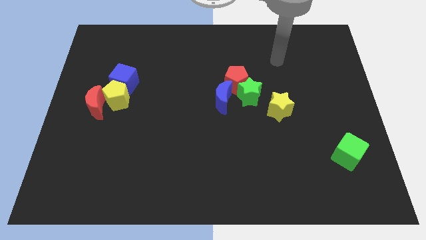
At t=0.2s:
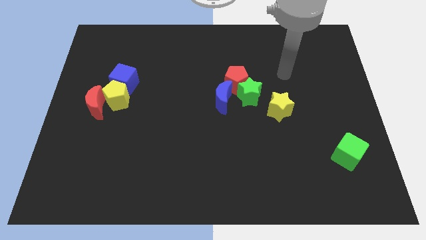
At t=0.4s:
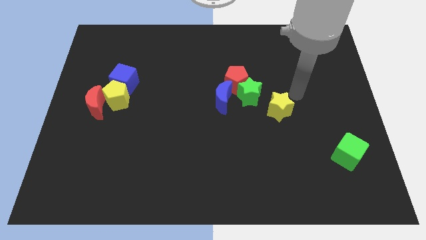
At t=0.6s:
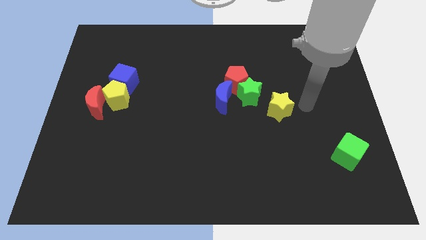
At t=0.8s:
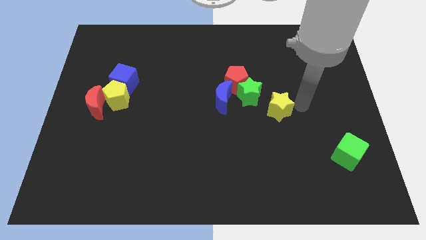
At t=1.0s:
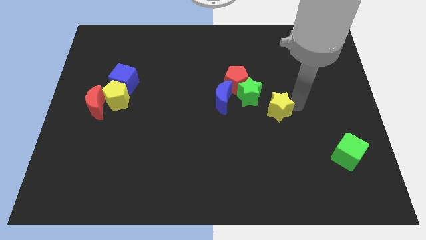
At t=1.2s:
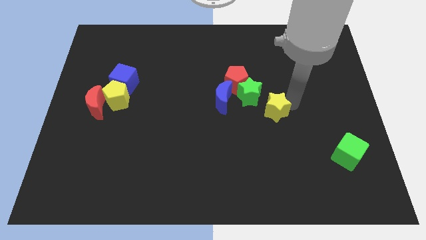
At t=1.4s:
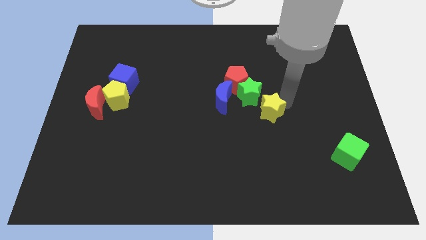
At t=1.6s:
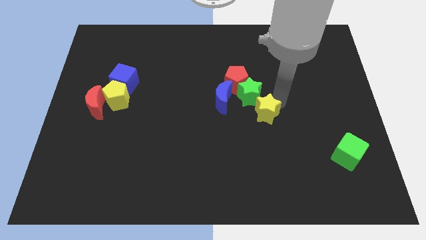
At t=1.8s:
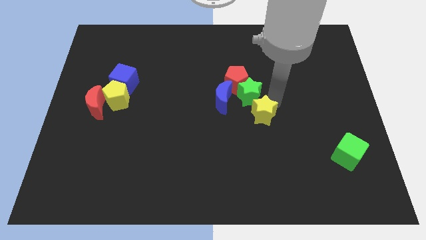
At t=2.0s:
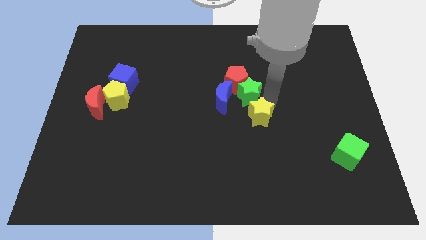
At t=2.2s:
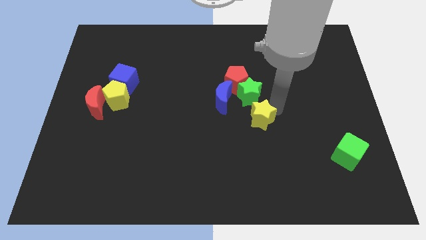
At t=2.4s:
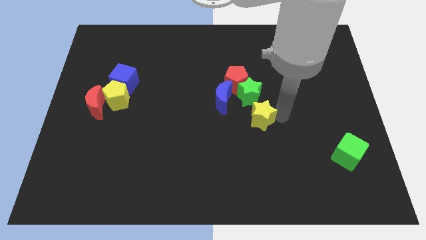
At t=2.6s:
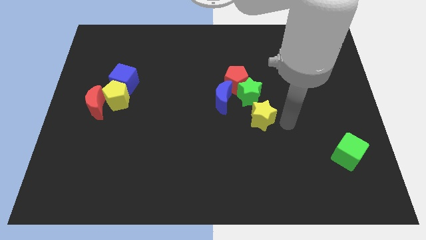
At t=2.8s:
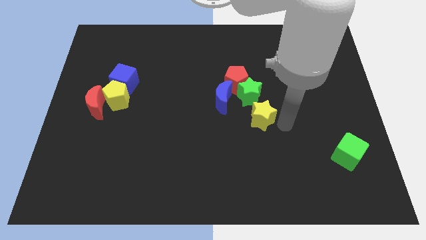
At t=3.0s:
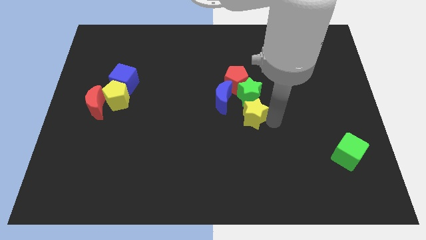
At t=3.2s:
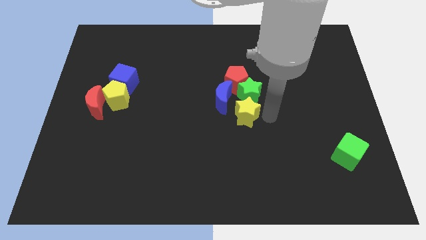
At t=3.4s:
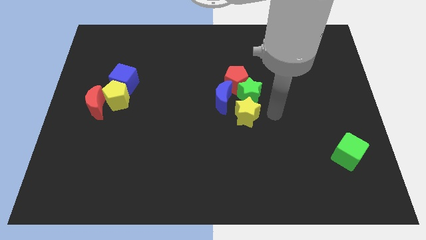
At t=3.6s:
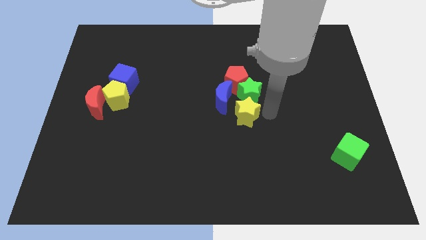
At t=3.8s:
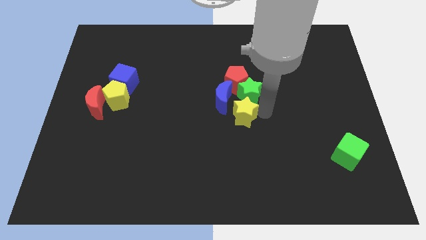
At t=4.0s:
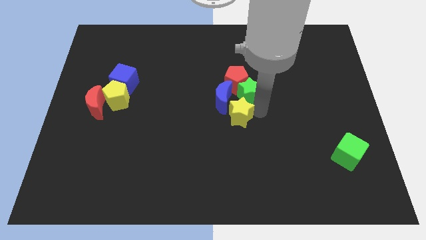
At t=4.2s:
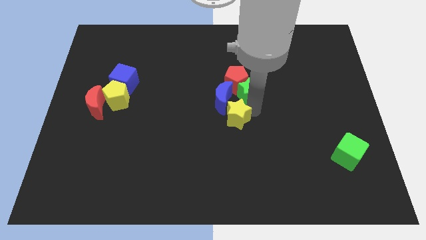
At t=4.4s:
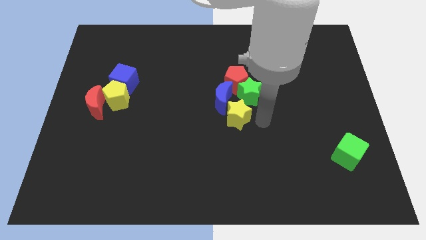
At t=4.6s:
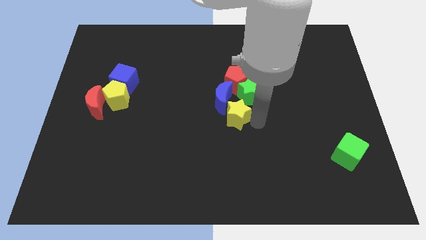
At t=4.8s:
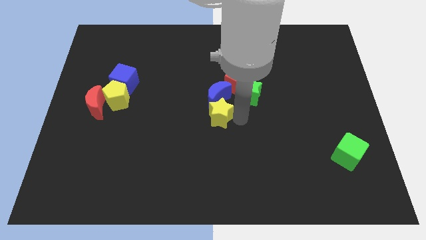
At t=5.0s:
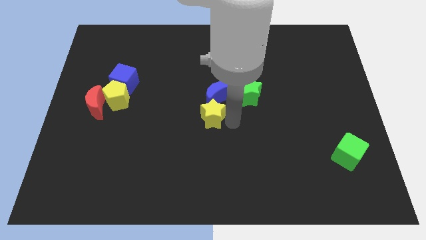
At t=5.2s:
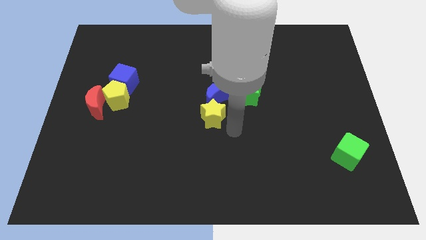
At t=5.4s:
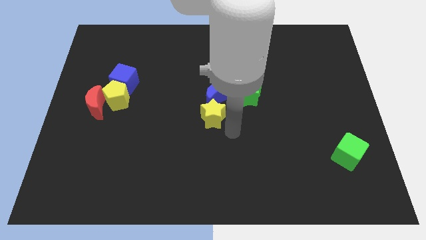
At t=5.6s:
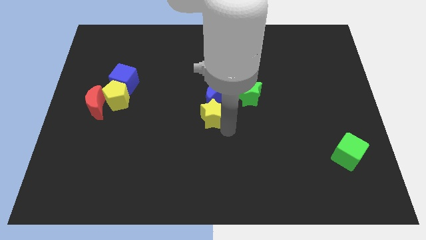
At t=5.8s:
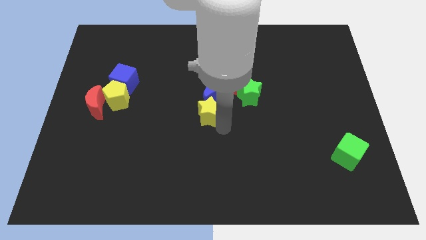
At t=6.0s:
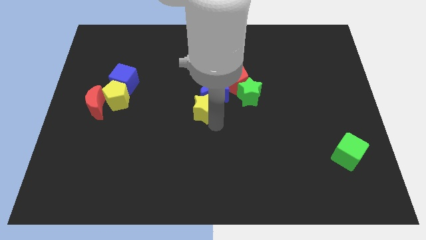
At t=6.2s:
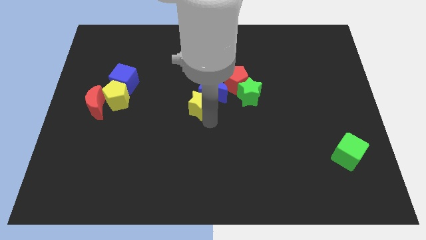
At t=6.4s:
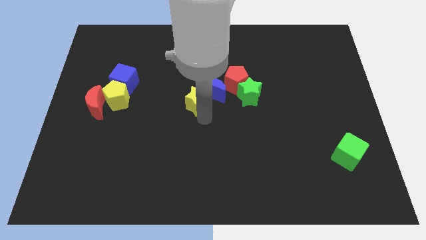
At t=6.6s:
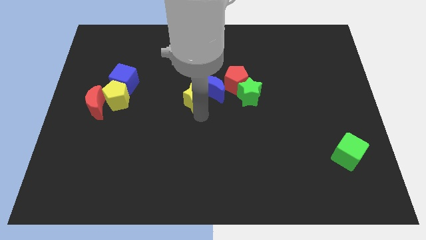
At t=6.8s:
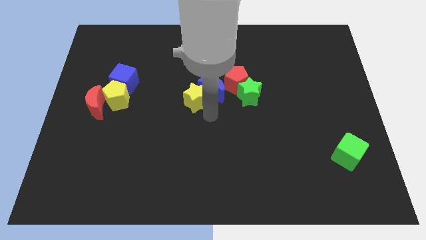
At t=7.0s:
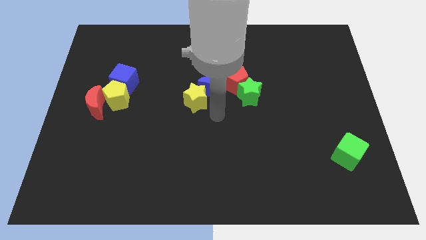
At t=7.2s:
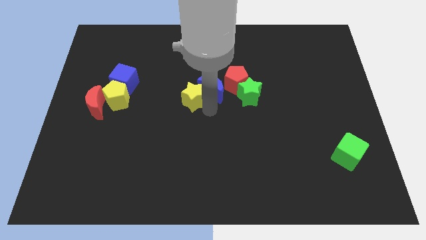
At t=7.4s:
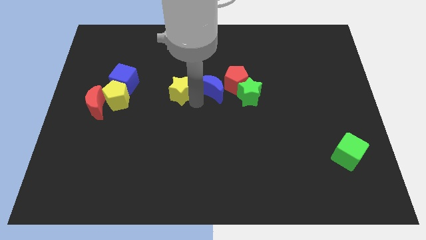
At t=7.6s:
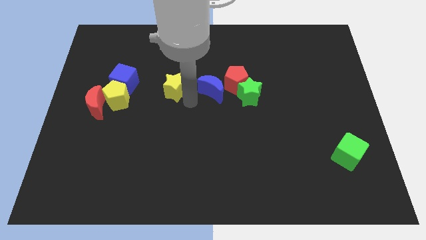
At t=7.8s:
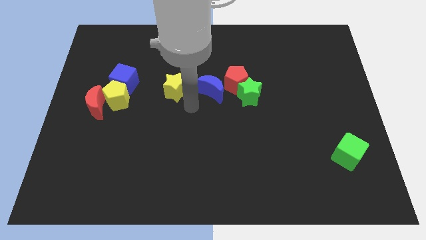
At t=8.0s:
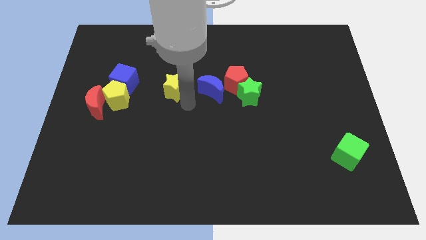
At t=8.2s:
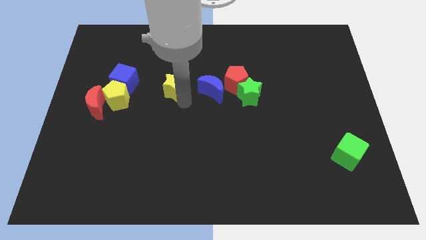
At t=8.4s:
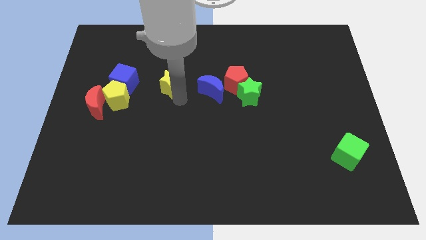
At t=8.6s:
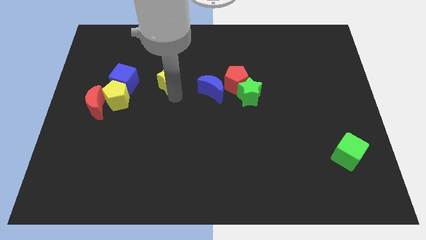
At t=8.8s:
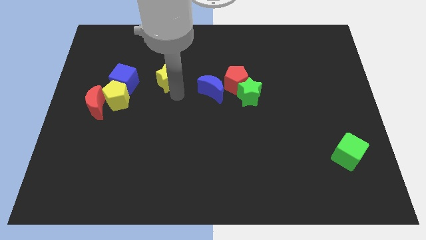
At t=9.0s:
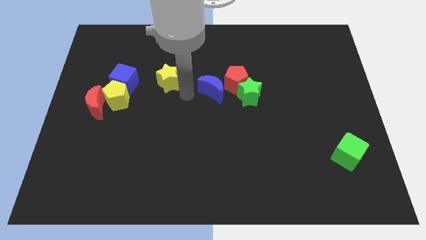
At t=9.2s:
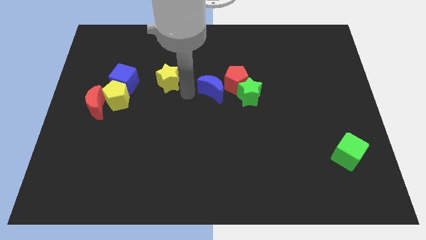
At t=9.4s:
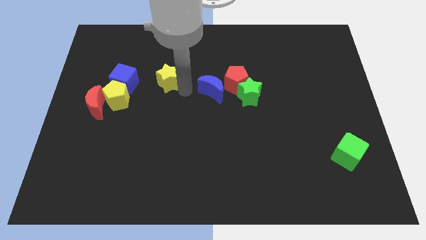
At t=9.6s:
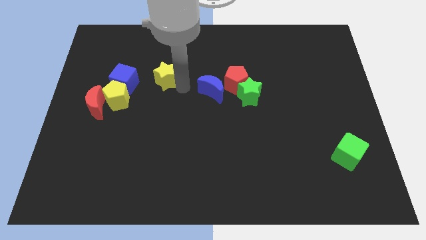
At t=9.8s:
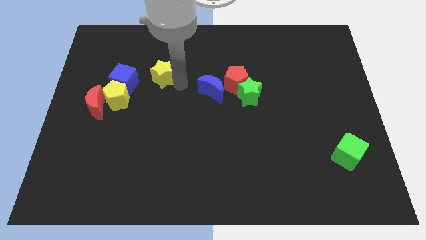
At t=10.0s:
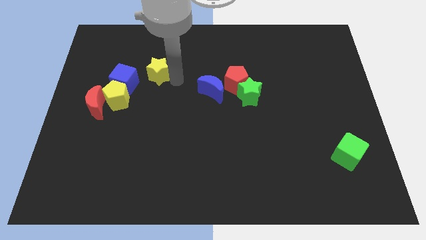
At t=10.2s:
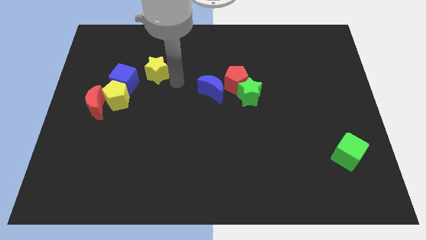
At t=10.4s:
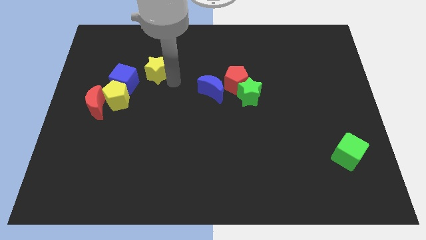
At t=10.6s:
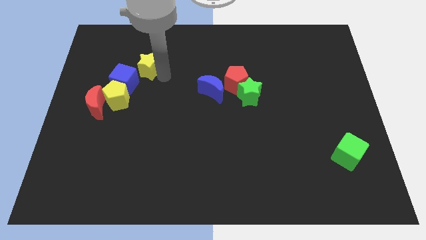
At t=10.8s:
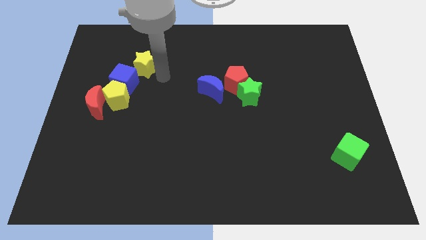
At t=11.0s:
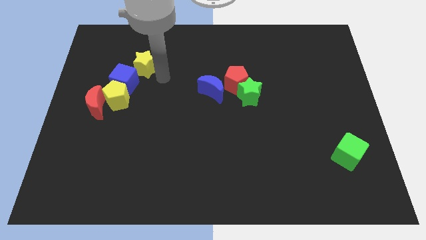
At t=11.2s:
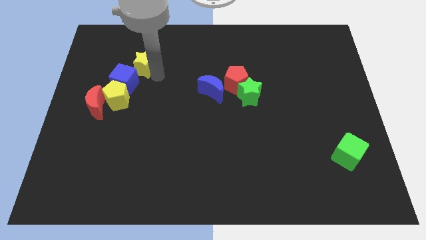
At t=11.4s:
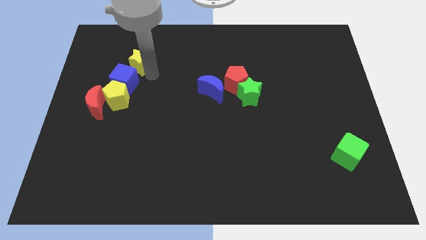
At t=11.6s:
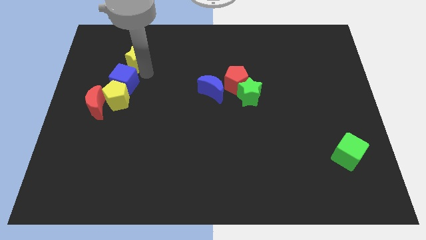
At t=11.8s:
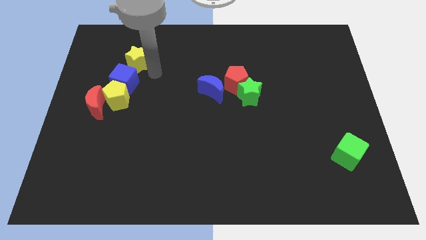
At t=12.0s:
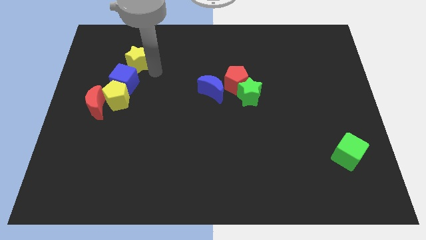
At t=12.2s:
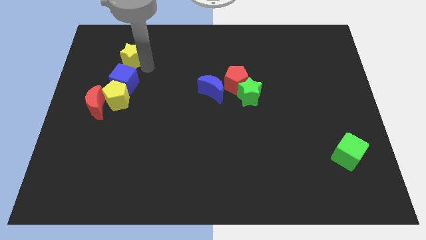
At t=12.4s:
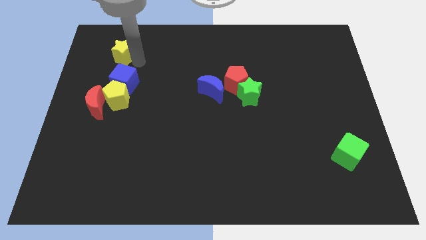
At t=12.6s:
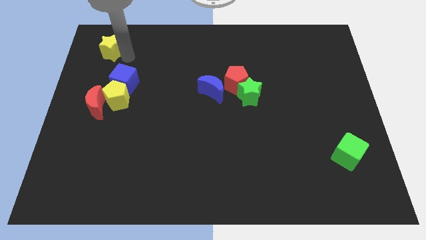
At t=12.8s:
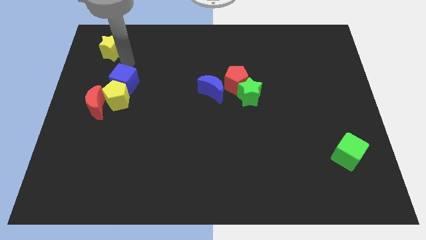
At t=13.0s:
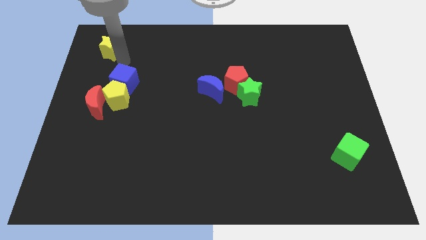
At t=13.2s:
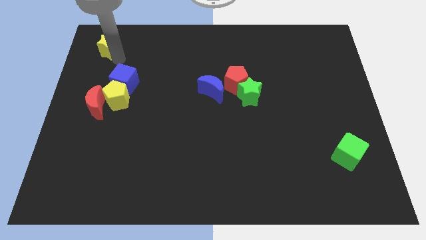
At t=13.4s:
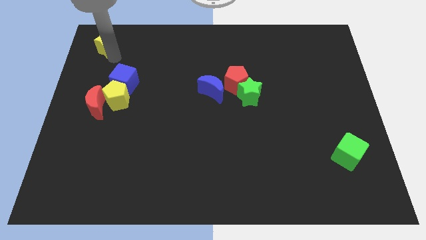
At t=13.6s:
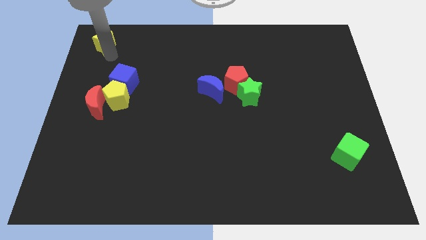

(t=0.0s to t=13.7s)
move the yellow star to the top left of the board

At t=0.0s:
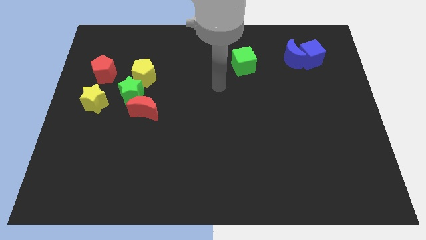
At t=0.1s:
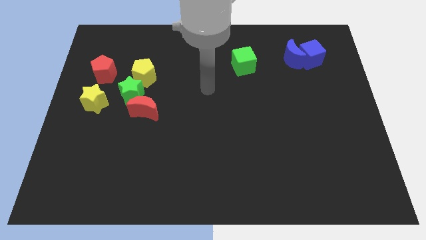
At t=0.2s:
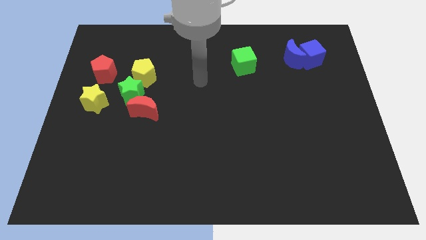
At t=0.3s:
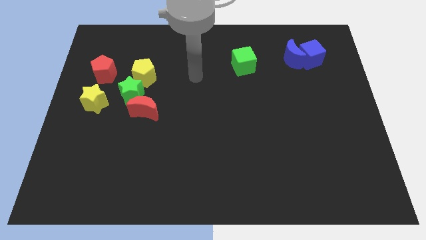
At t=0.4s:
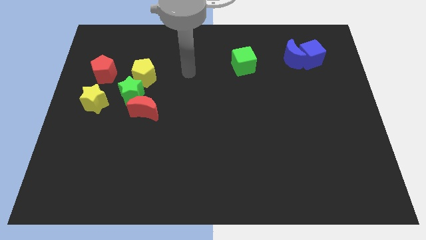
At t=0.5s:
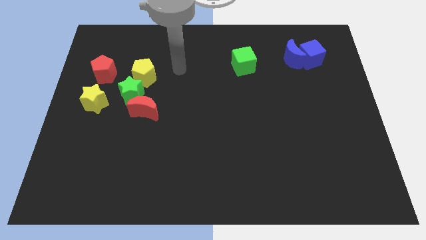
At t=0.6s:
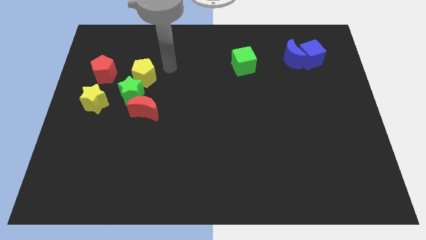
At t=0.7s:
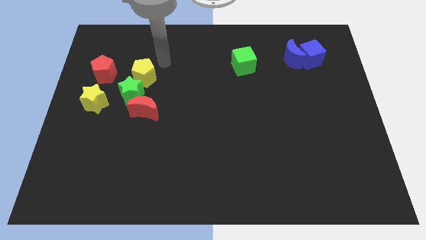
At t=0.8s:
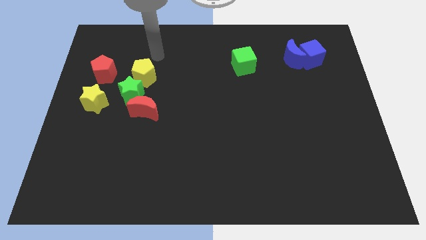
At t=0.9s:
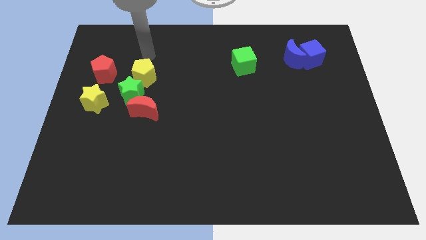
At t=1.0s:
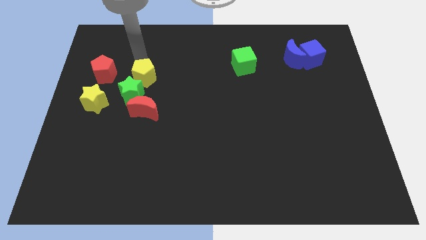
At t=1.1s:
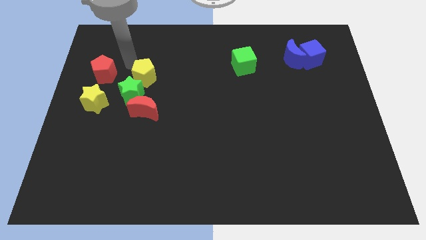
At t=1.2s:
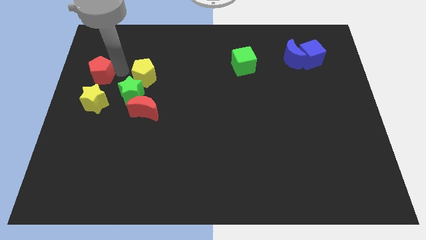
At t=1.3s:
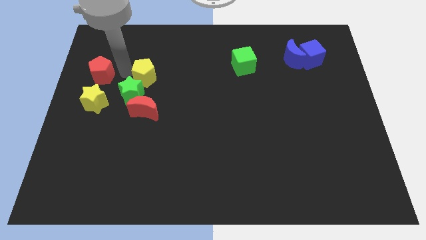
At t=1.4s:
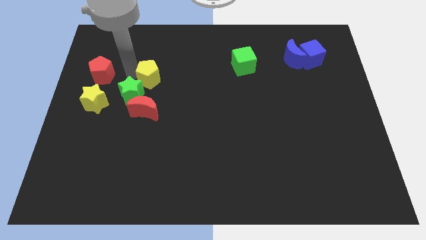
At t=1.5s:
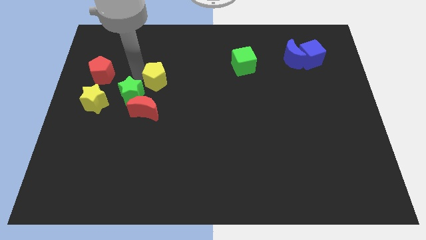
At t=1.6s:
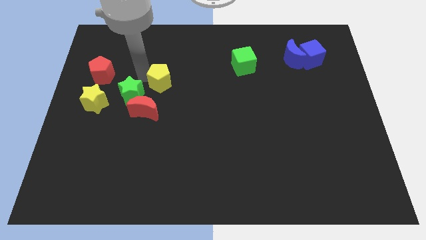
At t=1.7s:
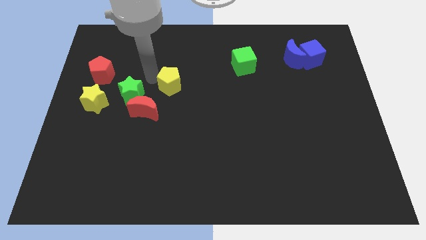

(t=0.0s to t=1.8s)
slide the yellow pentagon to the center of the board
